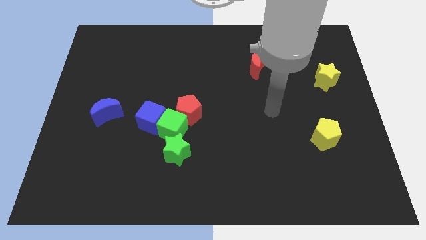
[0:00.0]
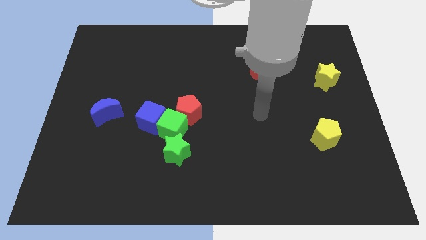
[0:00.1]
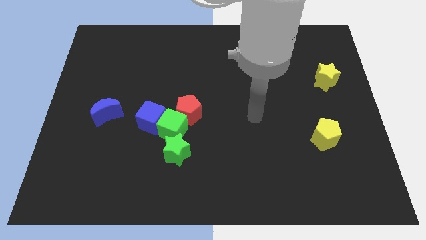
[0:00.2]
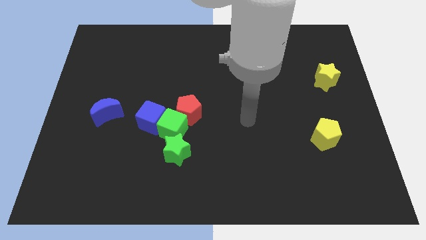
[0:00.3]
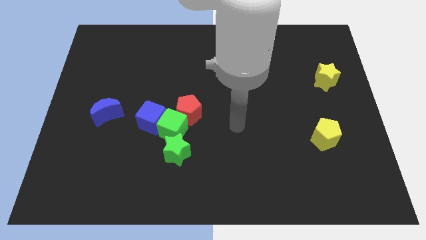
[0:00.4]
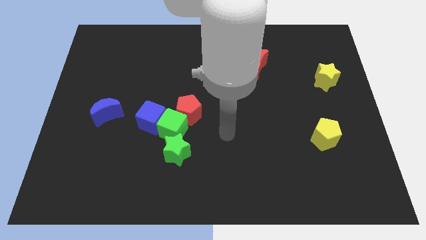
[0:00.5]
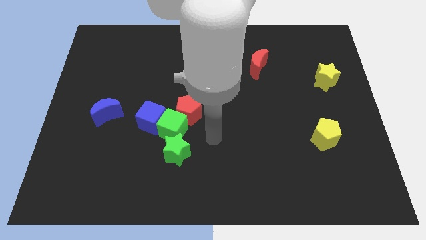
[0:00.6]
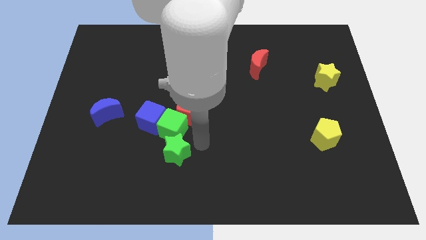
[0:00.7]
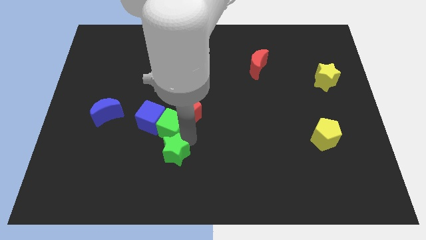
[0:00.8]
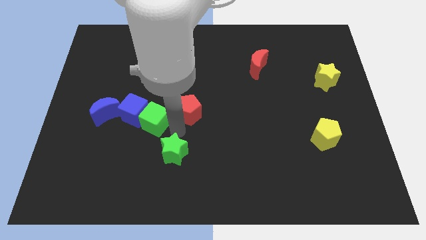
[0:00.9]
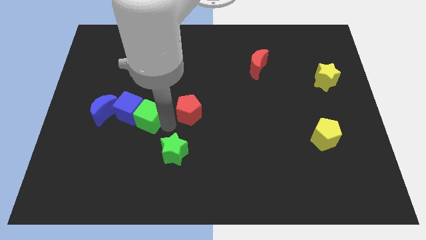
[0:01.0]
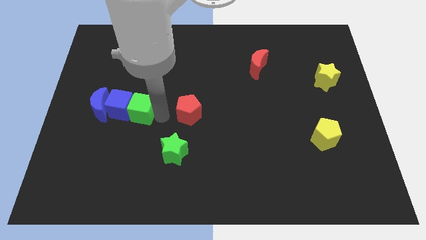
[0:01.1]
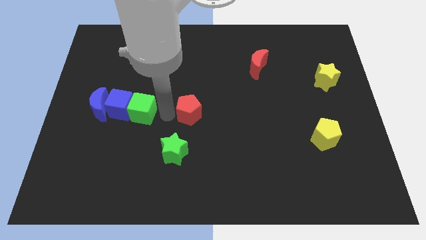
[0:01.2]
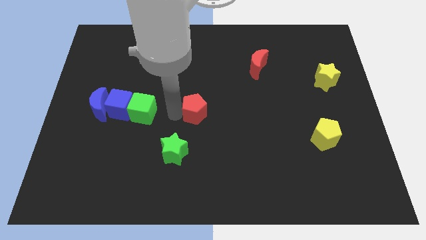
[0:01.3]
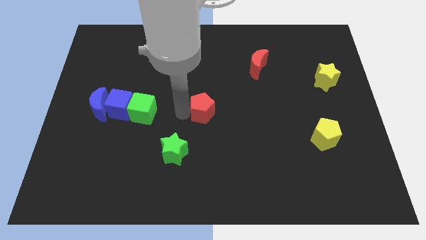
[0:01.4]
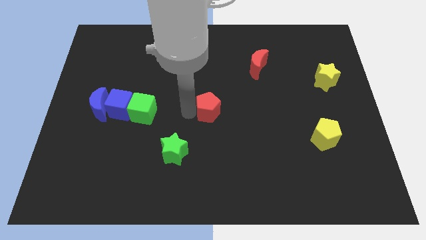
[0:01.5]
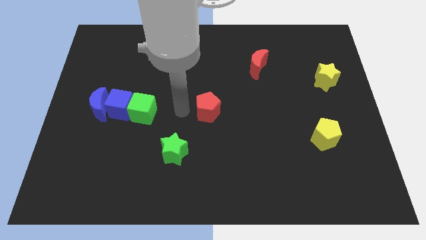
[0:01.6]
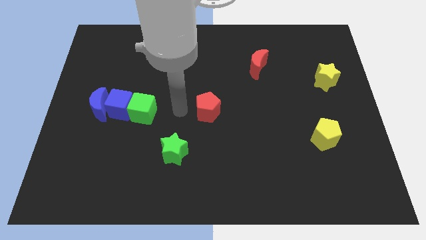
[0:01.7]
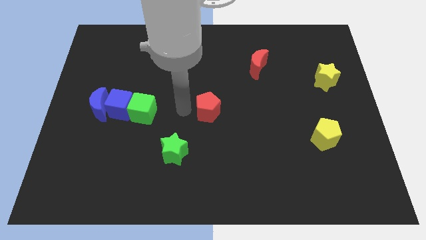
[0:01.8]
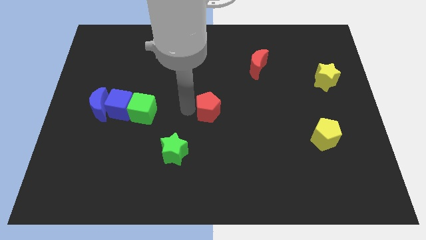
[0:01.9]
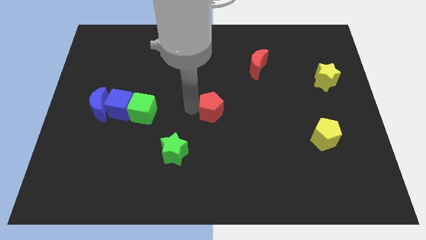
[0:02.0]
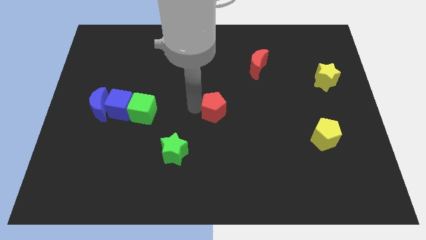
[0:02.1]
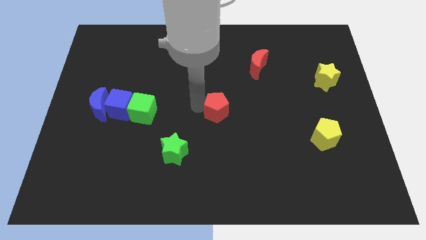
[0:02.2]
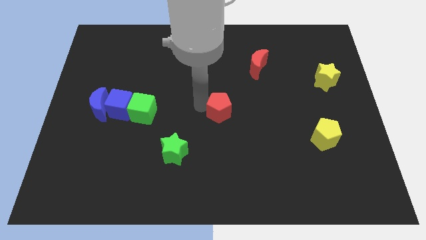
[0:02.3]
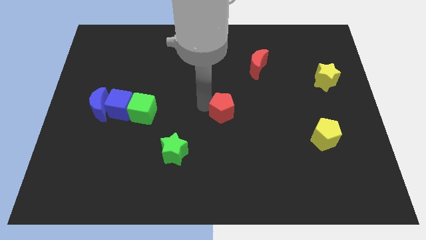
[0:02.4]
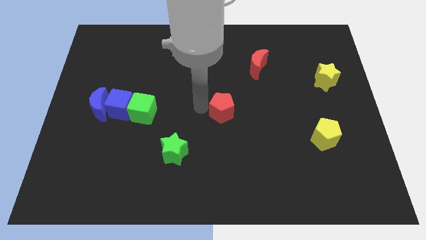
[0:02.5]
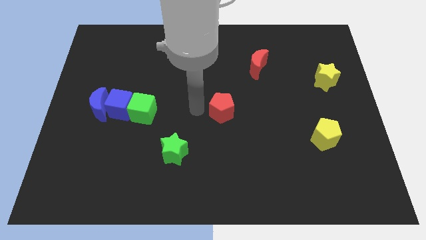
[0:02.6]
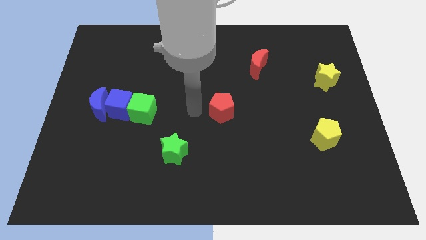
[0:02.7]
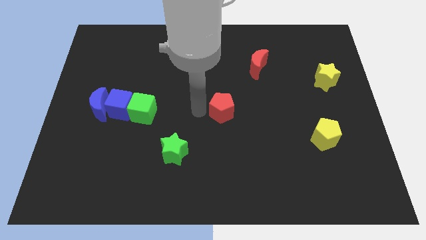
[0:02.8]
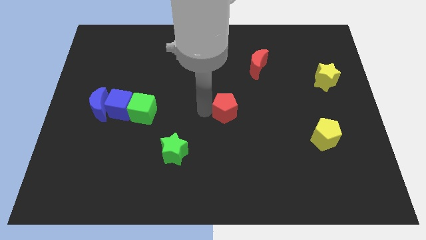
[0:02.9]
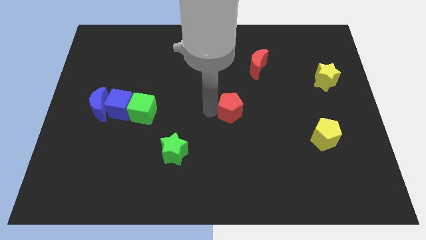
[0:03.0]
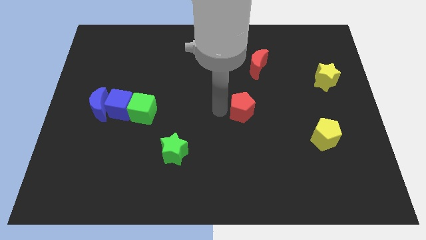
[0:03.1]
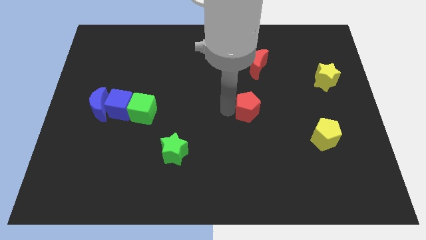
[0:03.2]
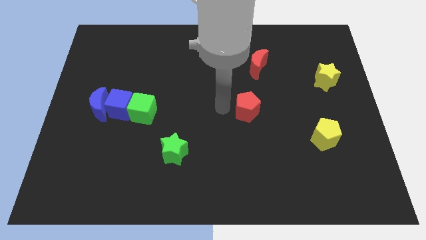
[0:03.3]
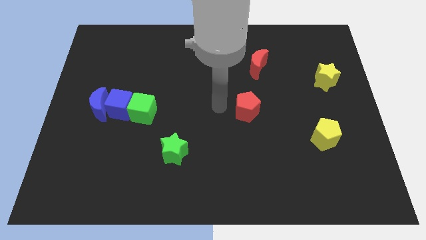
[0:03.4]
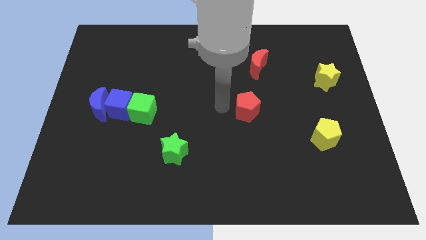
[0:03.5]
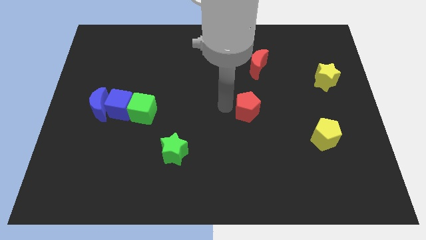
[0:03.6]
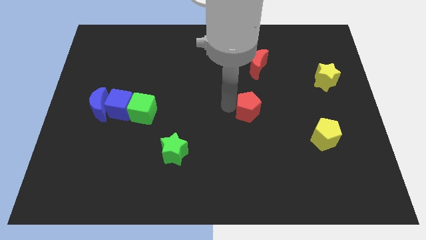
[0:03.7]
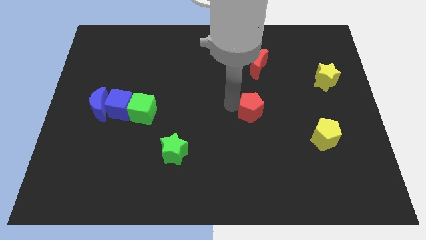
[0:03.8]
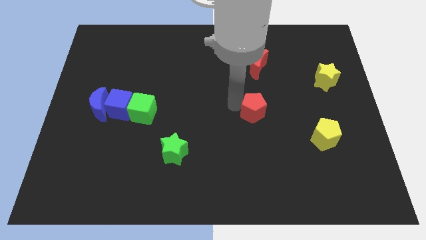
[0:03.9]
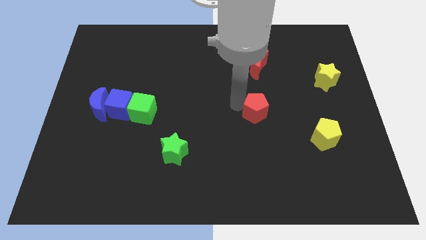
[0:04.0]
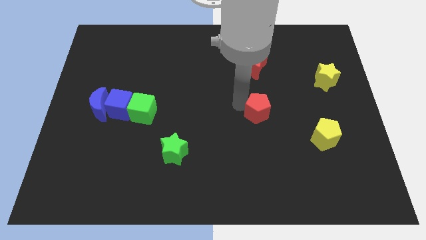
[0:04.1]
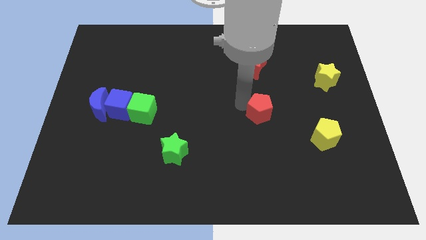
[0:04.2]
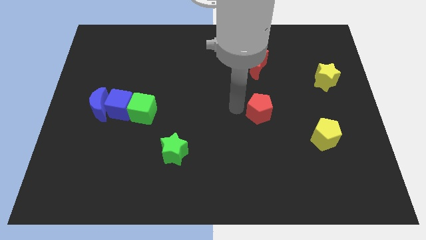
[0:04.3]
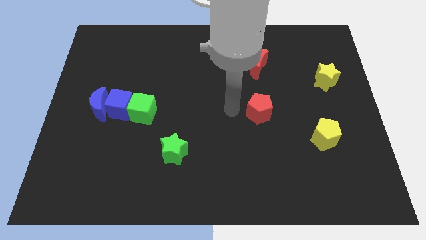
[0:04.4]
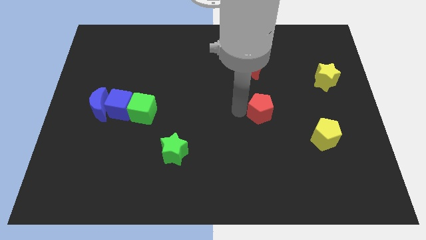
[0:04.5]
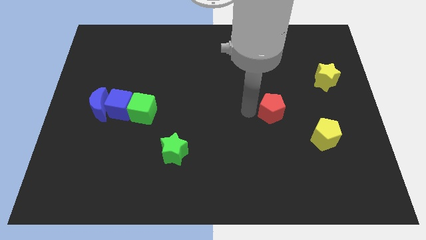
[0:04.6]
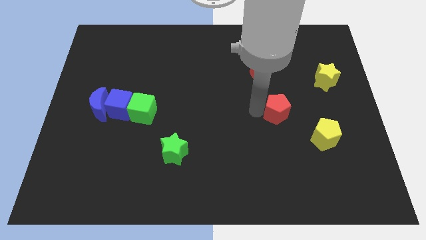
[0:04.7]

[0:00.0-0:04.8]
move the red pentagon right

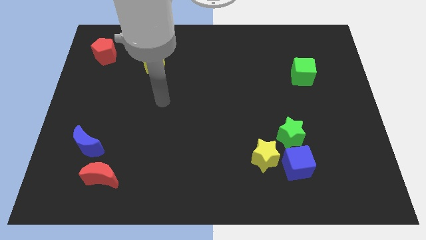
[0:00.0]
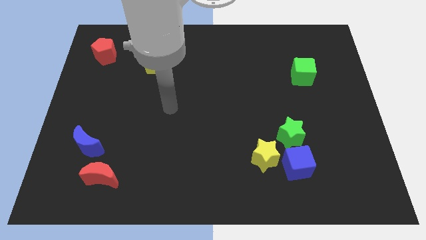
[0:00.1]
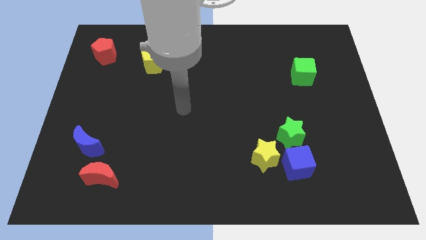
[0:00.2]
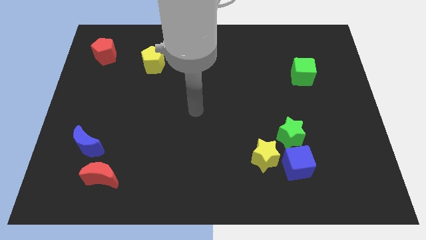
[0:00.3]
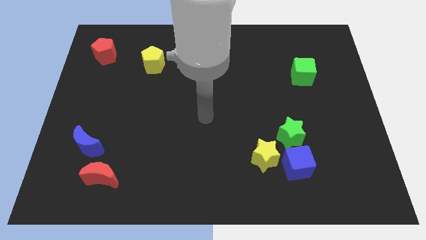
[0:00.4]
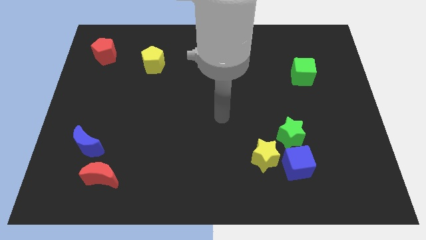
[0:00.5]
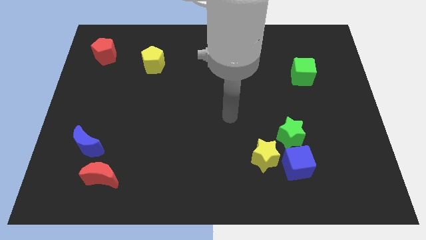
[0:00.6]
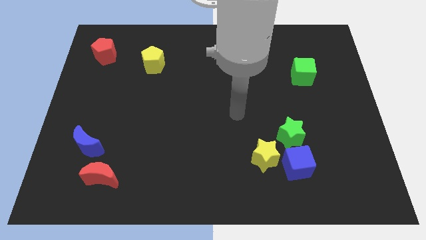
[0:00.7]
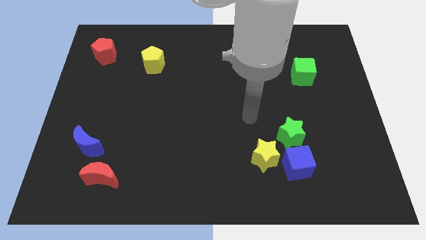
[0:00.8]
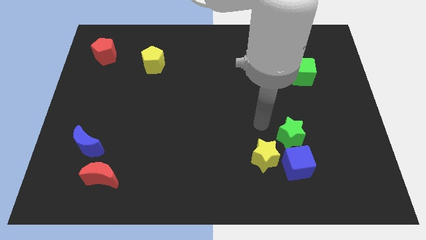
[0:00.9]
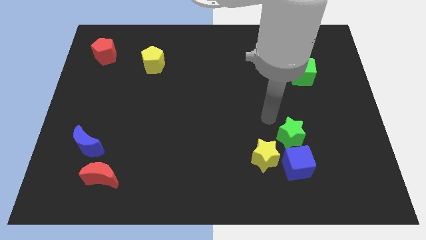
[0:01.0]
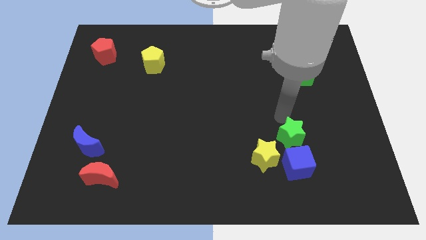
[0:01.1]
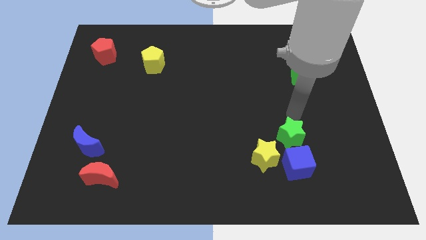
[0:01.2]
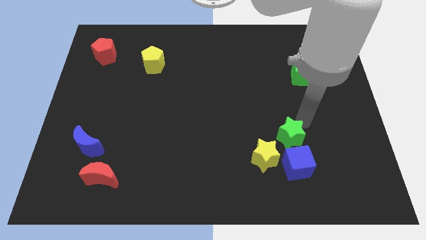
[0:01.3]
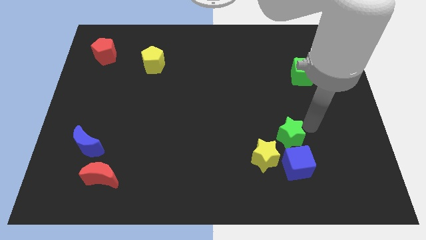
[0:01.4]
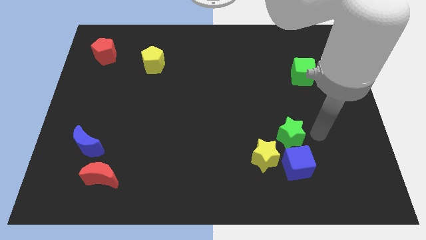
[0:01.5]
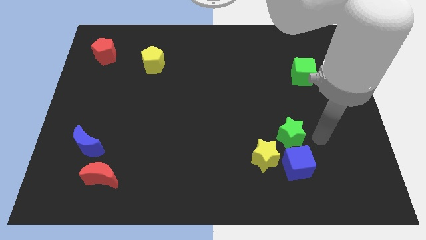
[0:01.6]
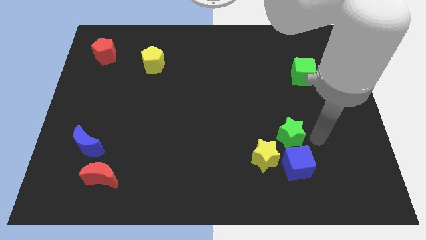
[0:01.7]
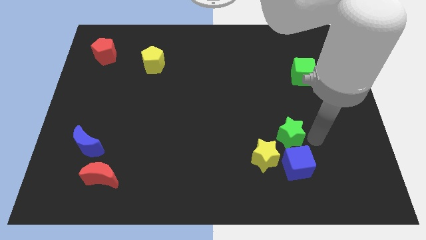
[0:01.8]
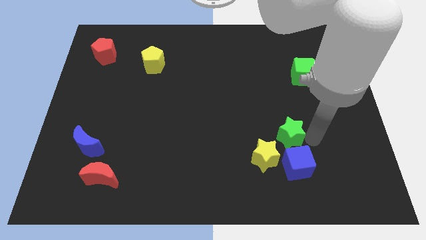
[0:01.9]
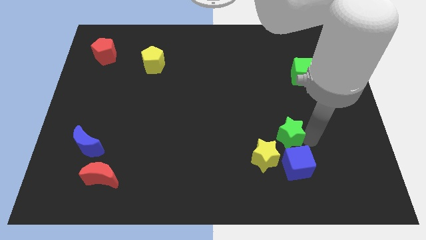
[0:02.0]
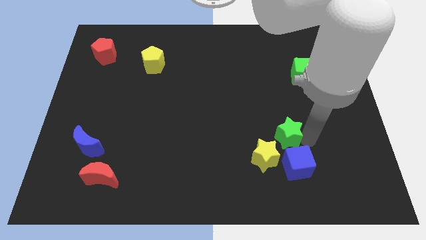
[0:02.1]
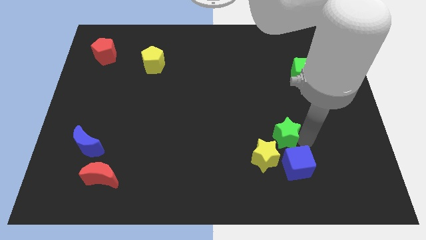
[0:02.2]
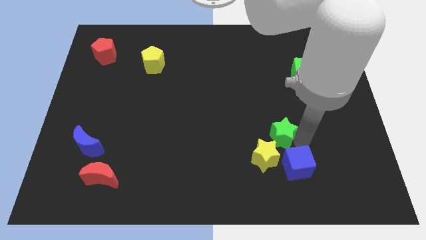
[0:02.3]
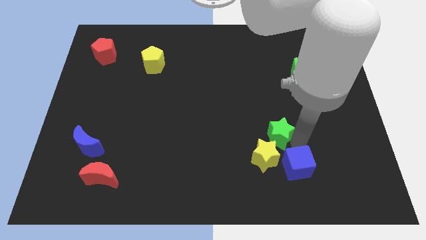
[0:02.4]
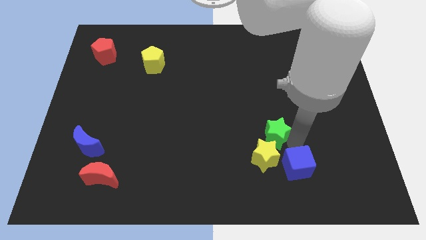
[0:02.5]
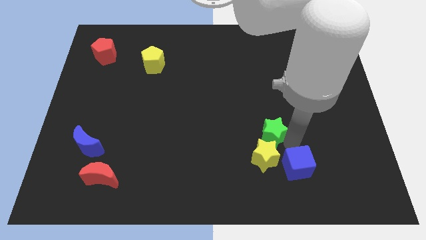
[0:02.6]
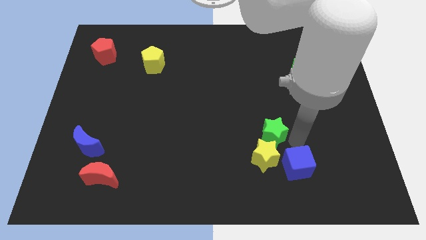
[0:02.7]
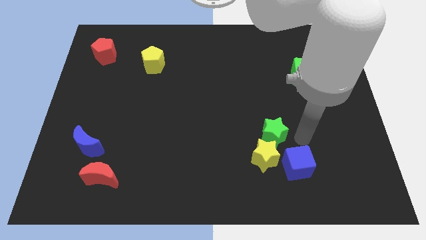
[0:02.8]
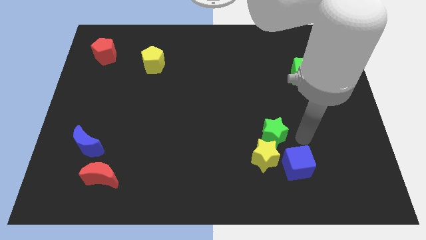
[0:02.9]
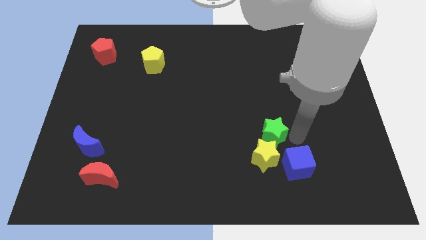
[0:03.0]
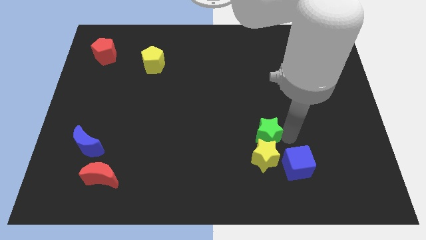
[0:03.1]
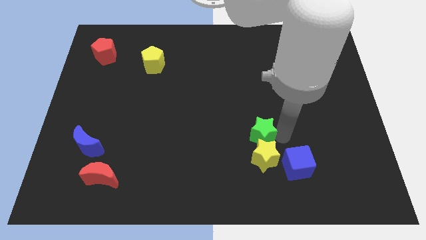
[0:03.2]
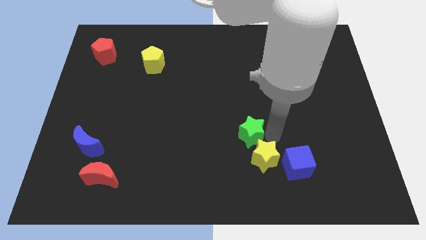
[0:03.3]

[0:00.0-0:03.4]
push the green star a little bit left

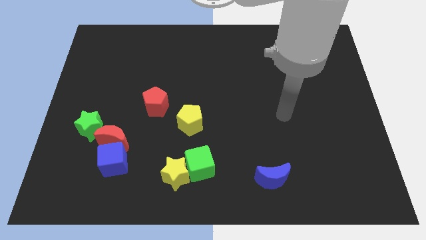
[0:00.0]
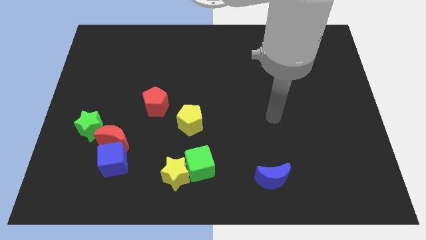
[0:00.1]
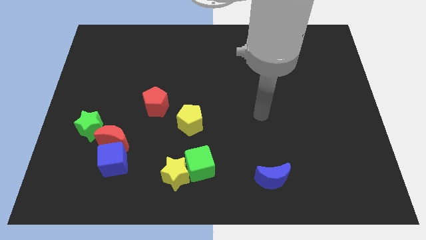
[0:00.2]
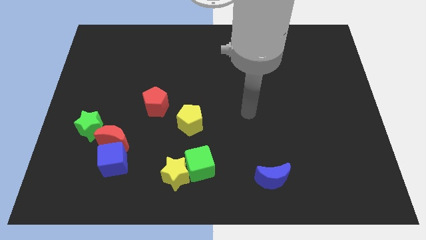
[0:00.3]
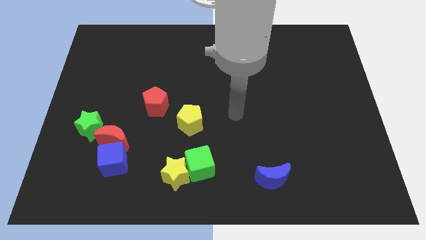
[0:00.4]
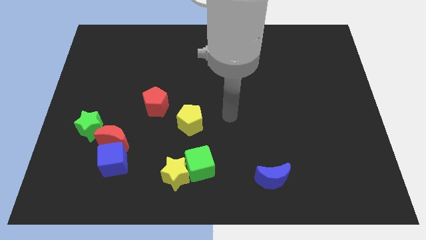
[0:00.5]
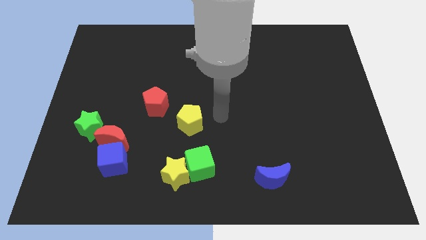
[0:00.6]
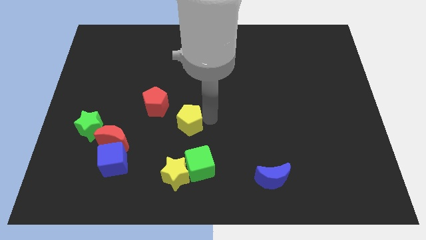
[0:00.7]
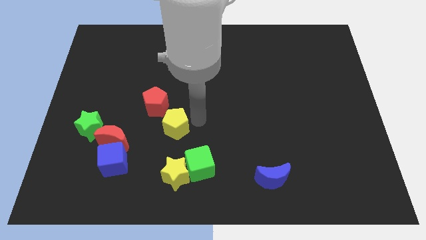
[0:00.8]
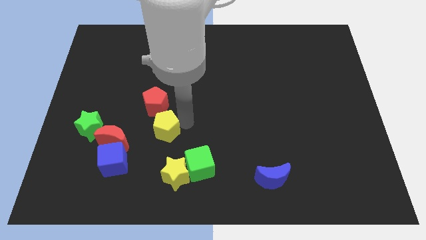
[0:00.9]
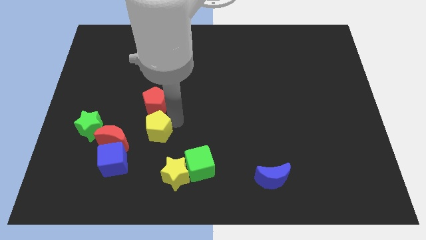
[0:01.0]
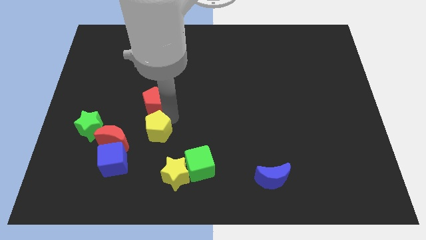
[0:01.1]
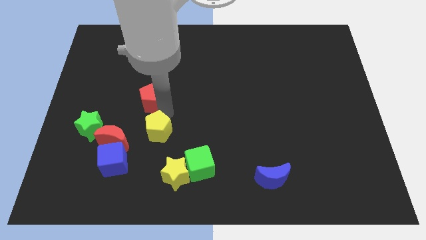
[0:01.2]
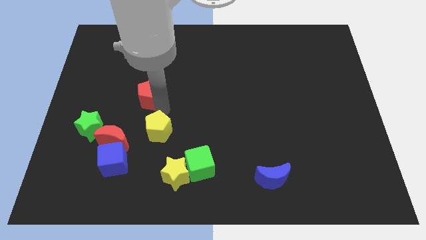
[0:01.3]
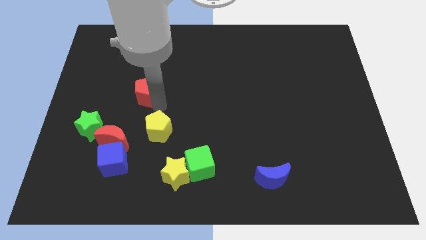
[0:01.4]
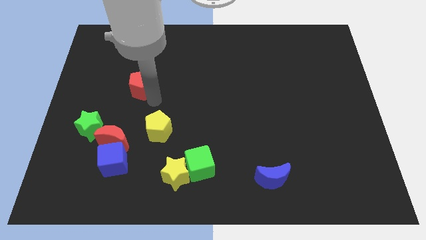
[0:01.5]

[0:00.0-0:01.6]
slide the red pentagon somewhat upwards and then left
